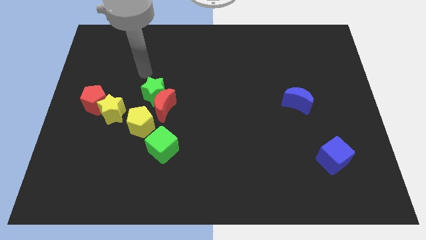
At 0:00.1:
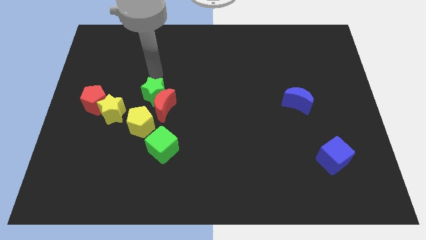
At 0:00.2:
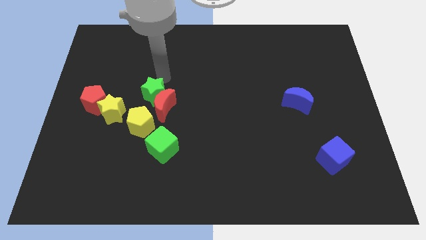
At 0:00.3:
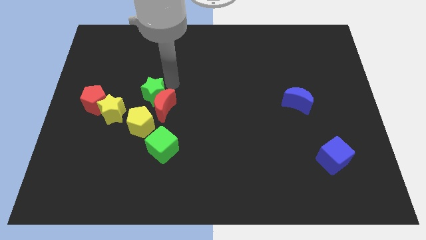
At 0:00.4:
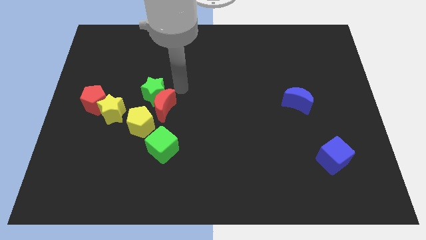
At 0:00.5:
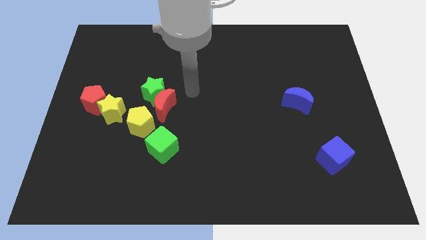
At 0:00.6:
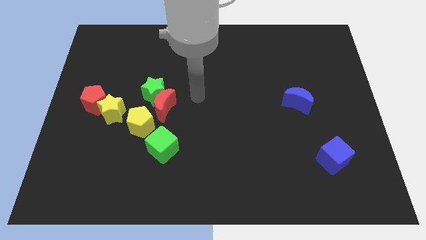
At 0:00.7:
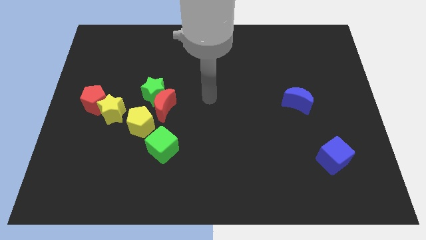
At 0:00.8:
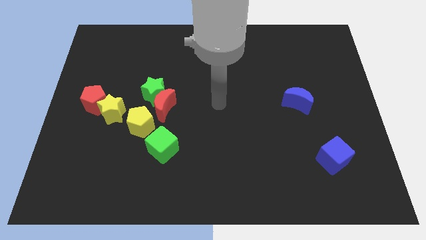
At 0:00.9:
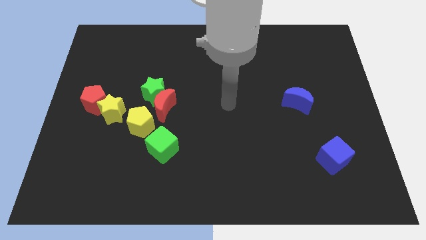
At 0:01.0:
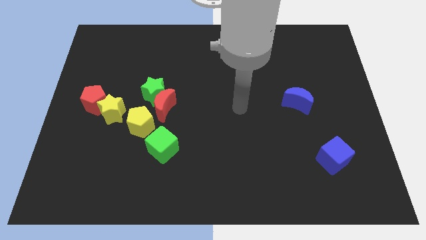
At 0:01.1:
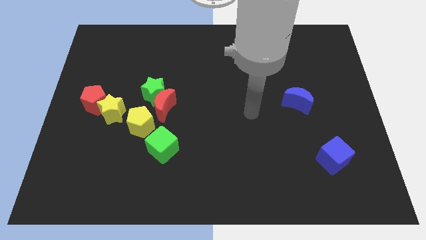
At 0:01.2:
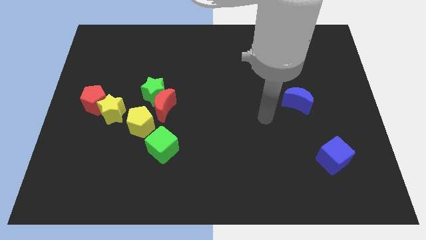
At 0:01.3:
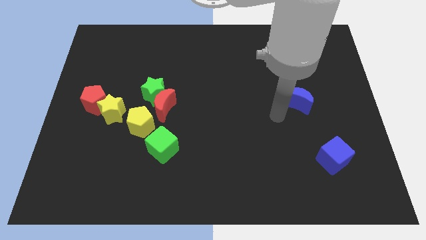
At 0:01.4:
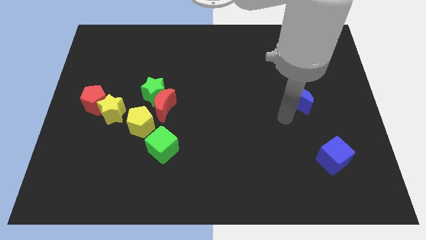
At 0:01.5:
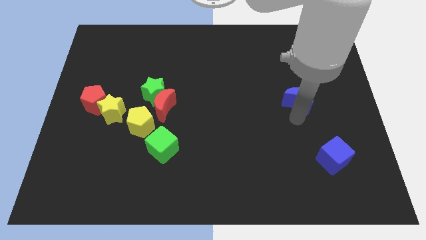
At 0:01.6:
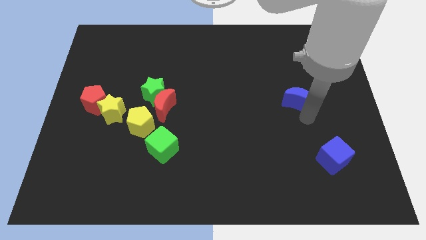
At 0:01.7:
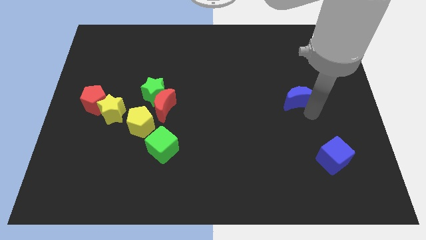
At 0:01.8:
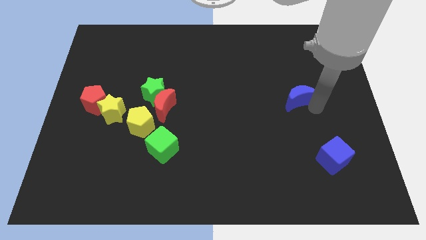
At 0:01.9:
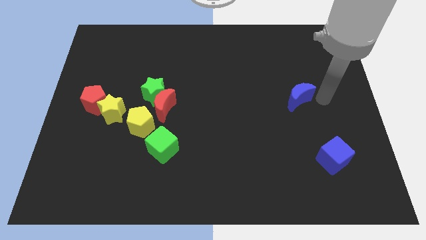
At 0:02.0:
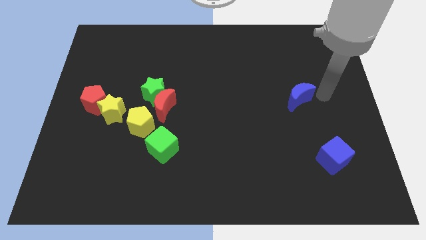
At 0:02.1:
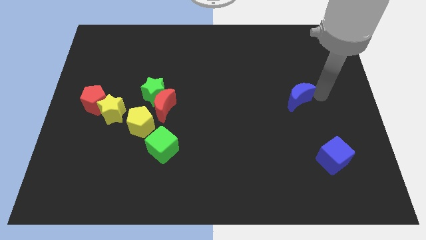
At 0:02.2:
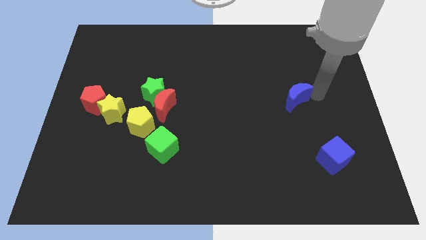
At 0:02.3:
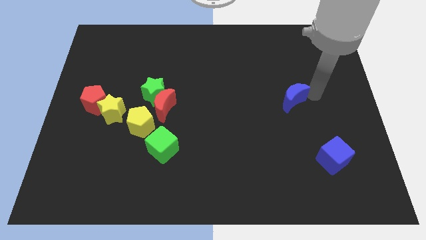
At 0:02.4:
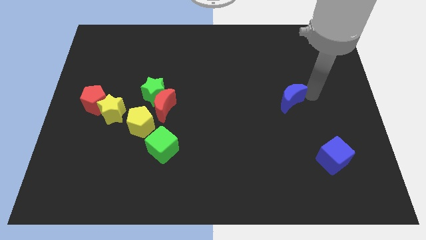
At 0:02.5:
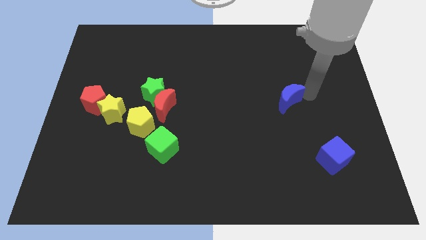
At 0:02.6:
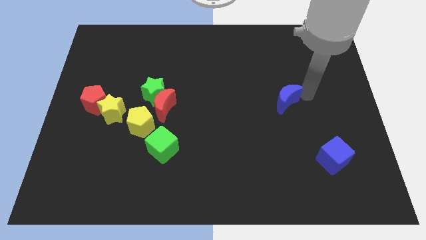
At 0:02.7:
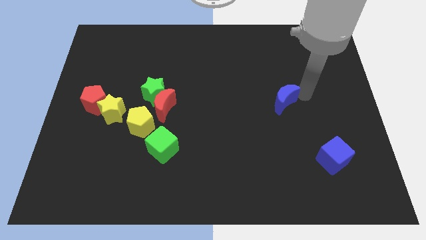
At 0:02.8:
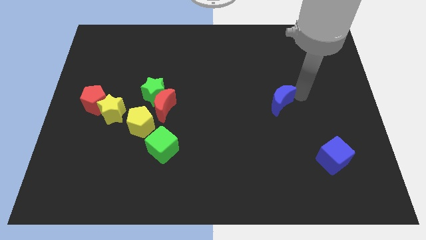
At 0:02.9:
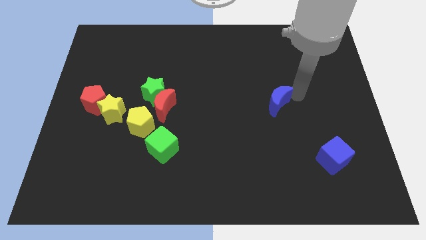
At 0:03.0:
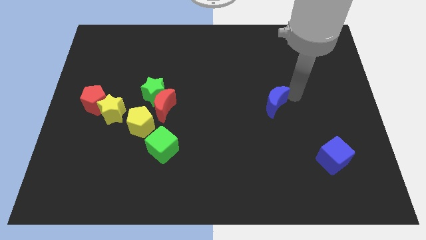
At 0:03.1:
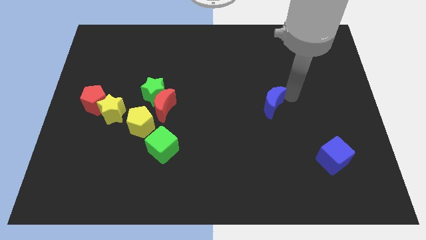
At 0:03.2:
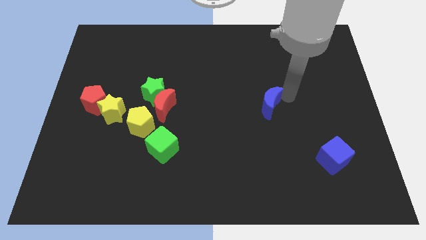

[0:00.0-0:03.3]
slightly move the blue moon to the left

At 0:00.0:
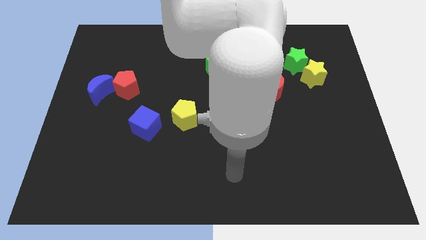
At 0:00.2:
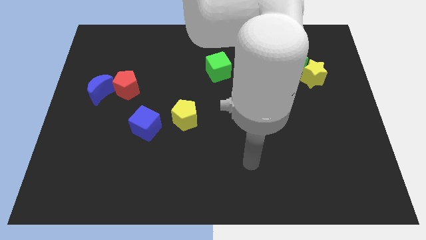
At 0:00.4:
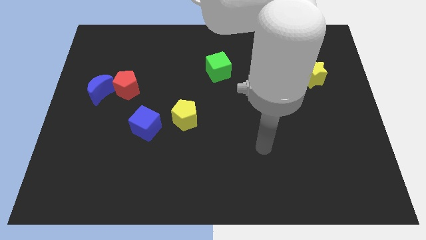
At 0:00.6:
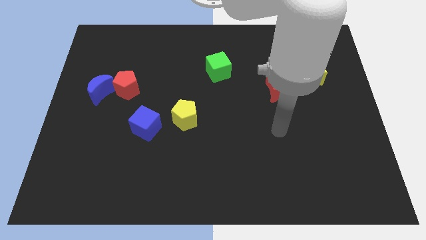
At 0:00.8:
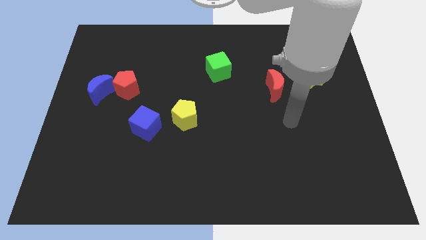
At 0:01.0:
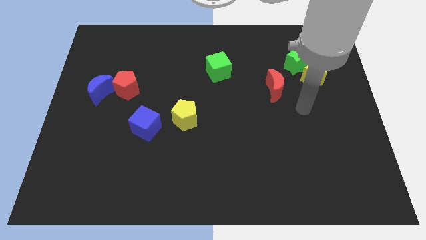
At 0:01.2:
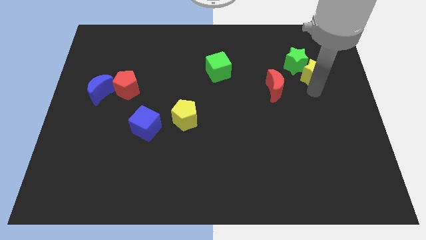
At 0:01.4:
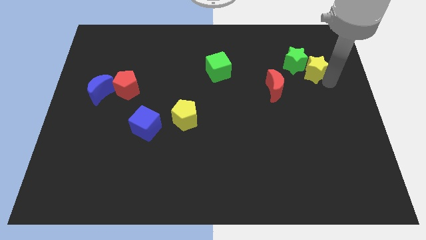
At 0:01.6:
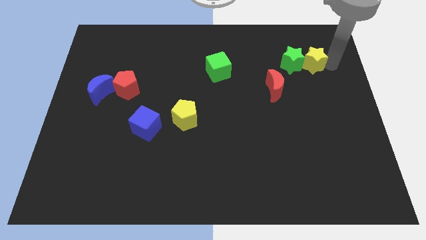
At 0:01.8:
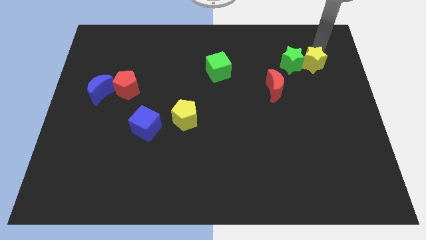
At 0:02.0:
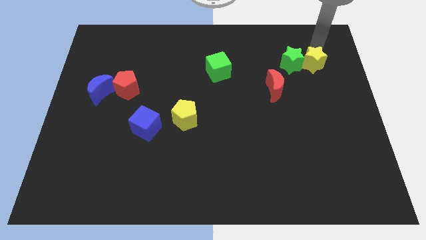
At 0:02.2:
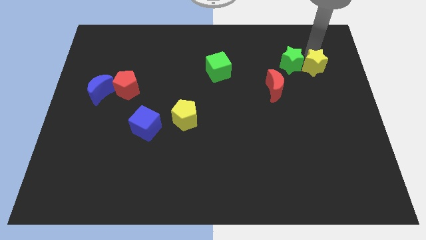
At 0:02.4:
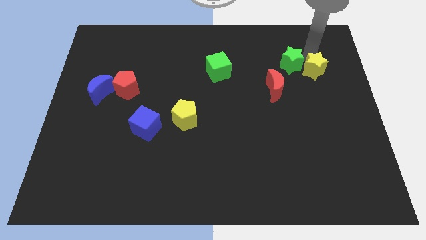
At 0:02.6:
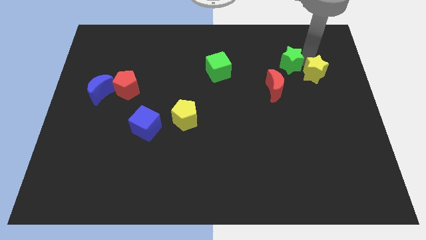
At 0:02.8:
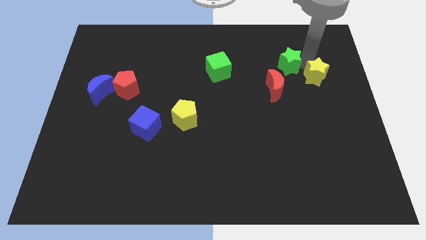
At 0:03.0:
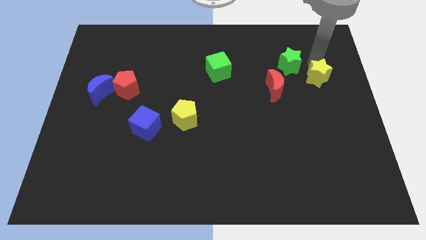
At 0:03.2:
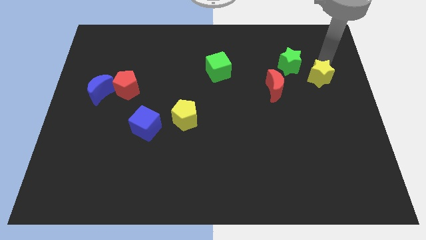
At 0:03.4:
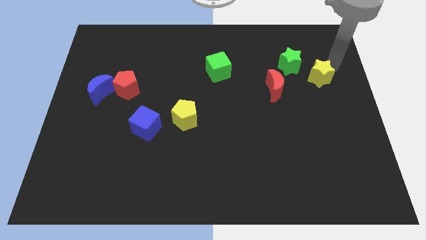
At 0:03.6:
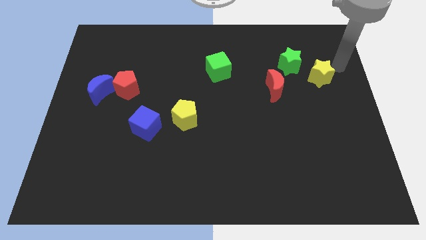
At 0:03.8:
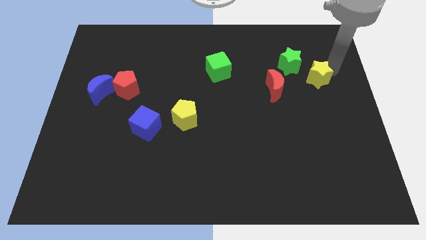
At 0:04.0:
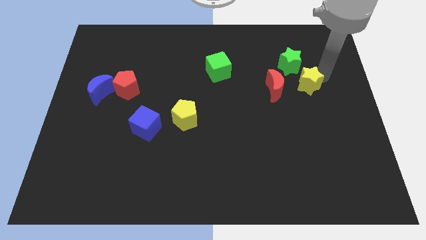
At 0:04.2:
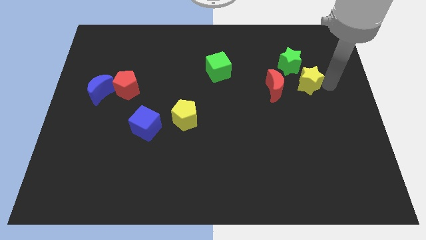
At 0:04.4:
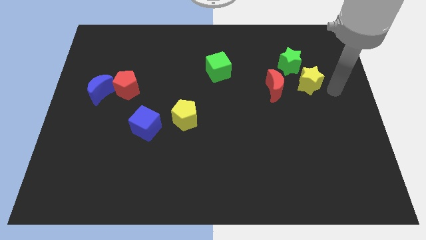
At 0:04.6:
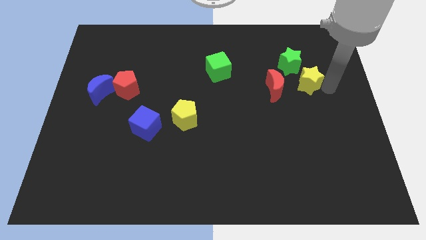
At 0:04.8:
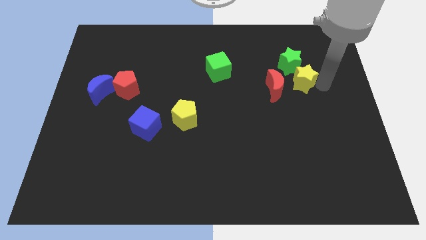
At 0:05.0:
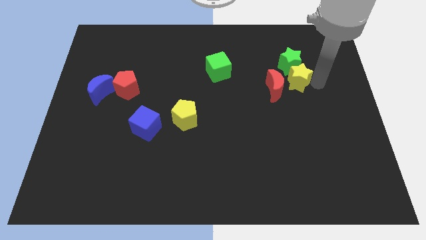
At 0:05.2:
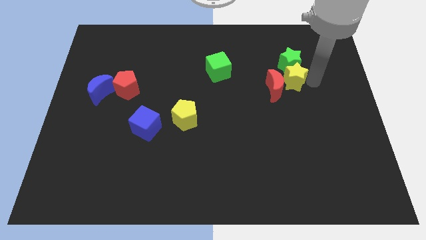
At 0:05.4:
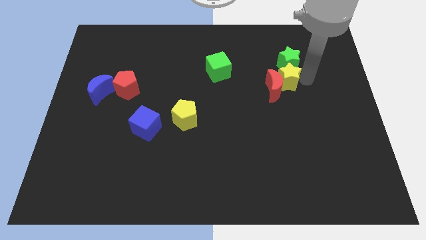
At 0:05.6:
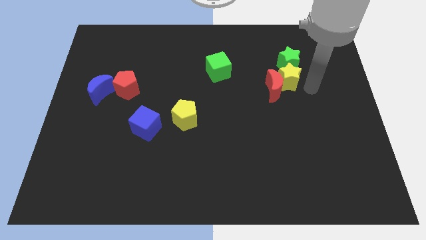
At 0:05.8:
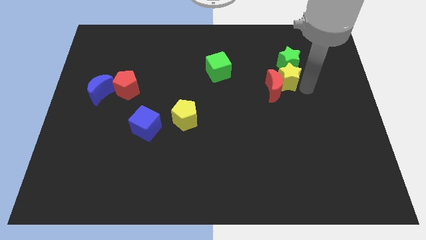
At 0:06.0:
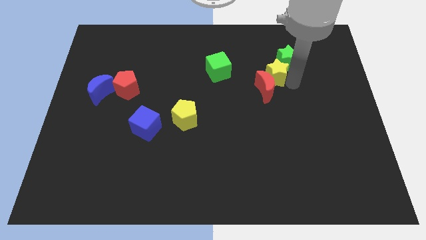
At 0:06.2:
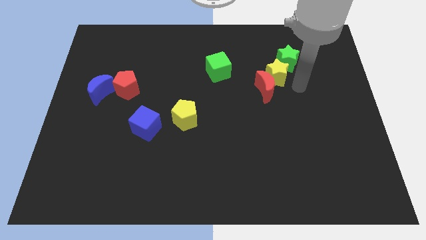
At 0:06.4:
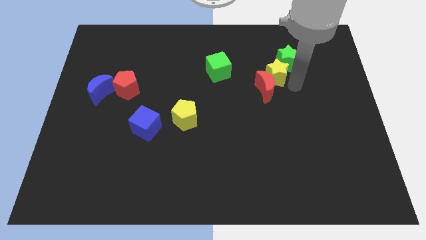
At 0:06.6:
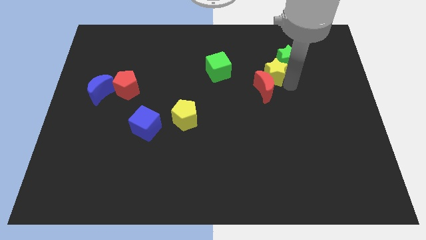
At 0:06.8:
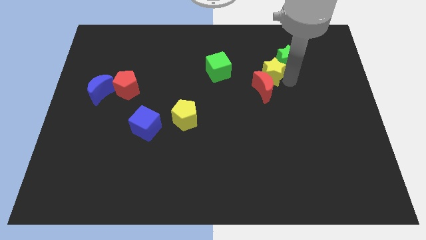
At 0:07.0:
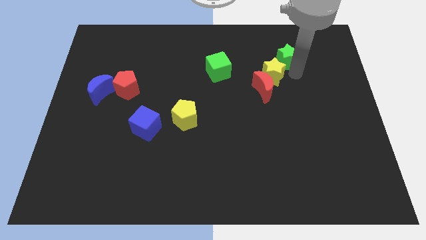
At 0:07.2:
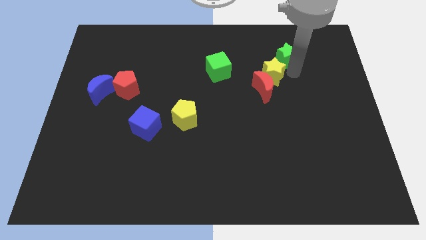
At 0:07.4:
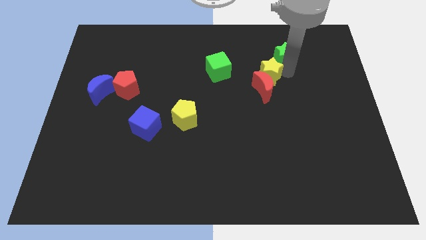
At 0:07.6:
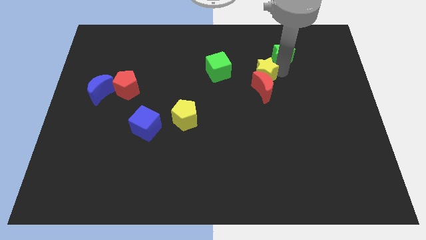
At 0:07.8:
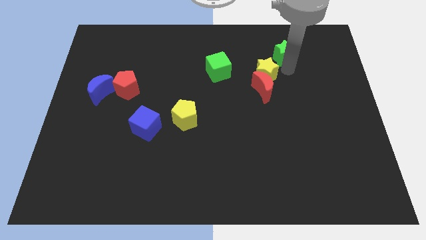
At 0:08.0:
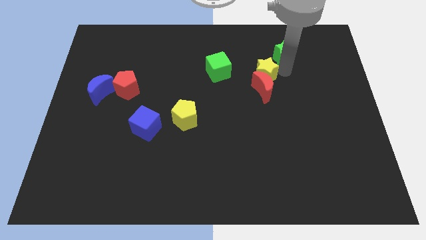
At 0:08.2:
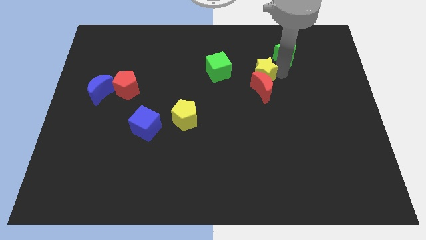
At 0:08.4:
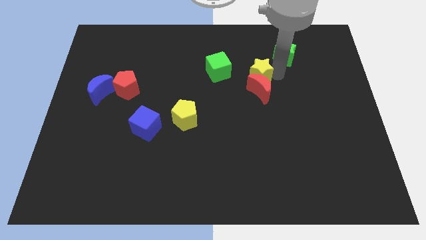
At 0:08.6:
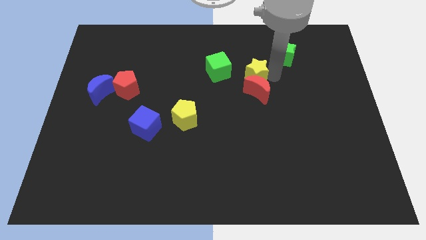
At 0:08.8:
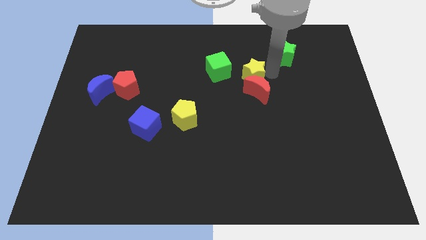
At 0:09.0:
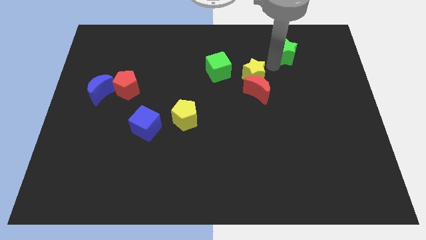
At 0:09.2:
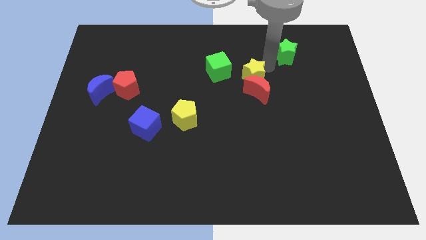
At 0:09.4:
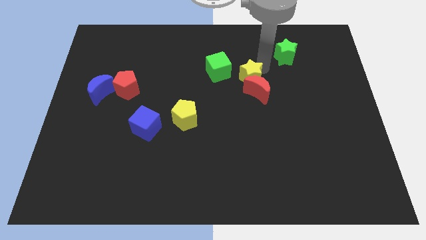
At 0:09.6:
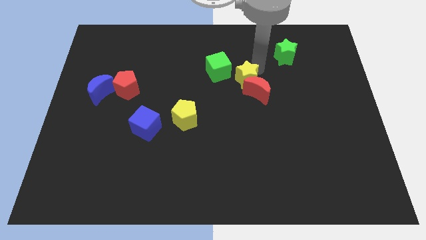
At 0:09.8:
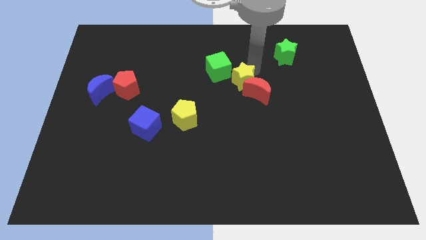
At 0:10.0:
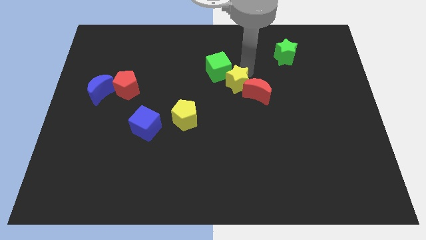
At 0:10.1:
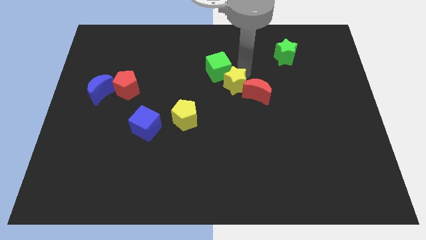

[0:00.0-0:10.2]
slide the yellow star to the left
